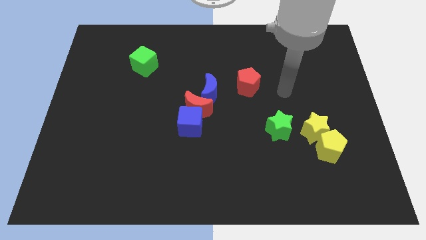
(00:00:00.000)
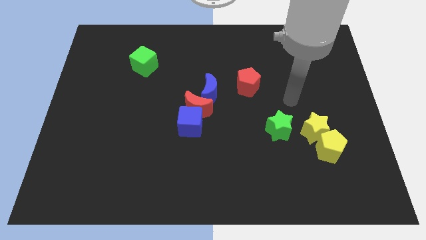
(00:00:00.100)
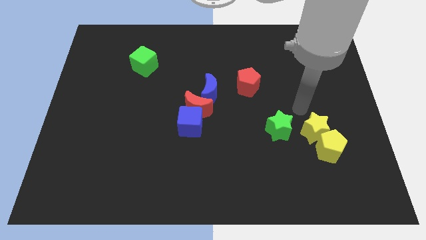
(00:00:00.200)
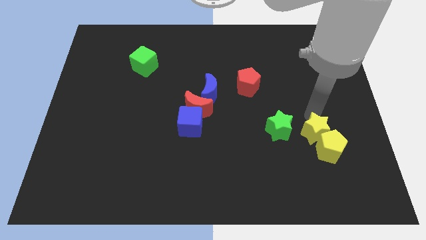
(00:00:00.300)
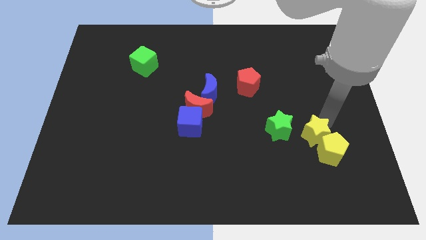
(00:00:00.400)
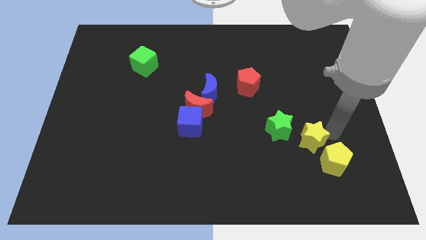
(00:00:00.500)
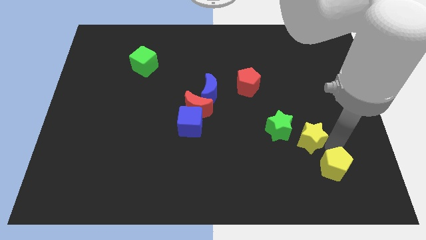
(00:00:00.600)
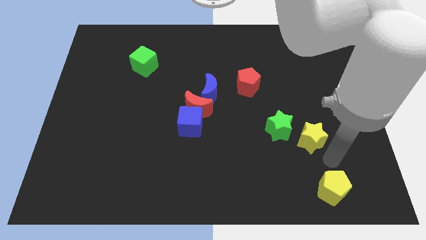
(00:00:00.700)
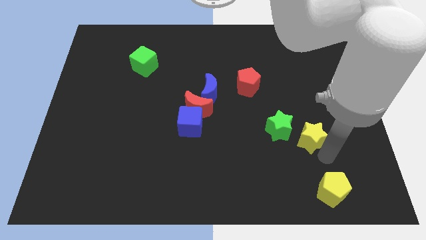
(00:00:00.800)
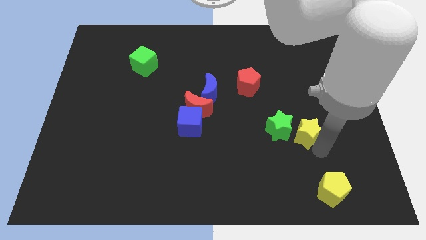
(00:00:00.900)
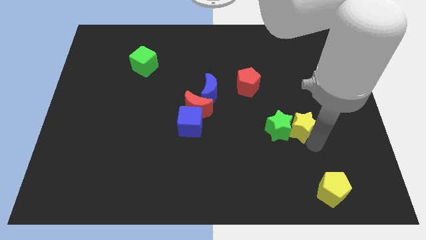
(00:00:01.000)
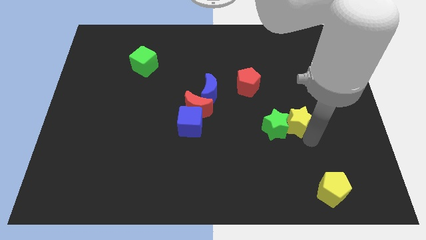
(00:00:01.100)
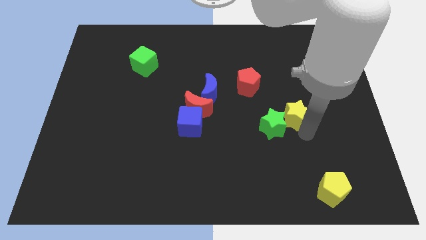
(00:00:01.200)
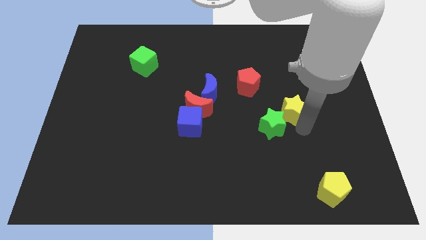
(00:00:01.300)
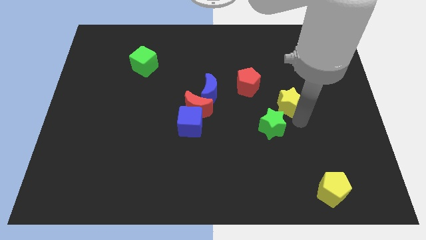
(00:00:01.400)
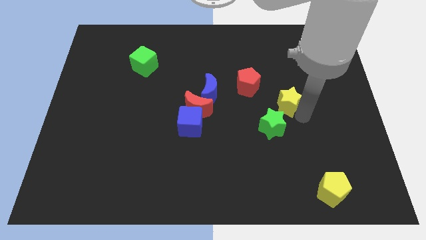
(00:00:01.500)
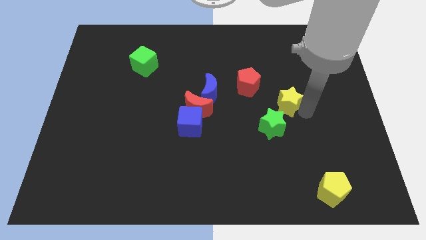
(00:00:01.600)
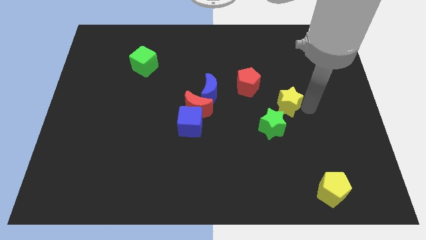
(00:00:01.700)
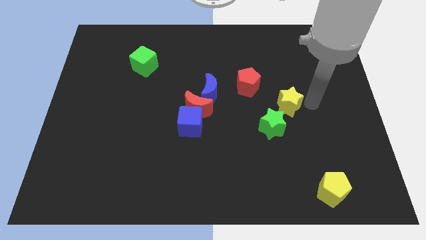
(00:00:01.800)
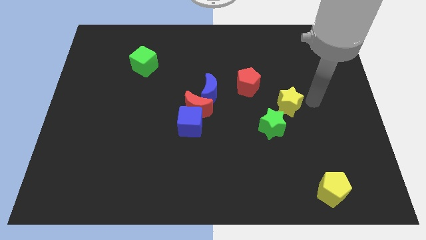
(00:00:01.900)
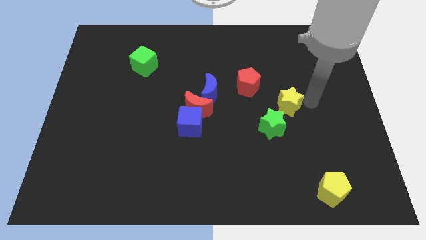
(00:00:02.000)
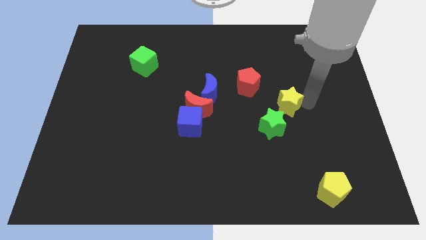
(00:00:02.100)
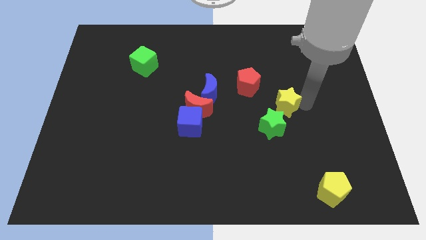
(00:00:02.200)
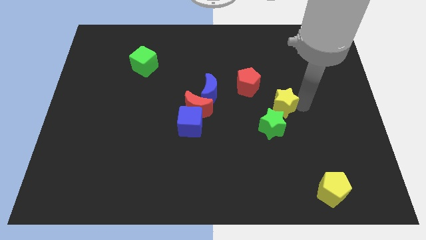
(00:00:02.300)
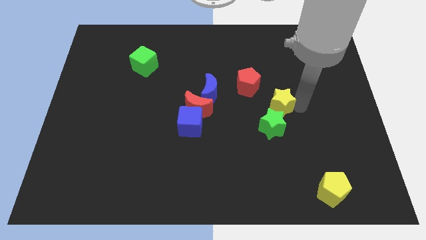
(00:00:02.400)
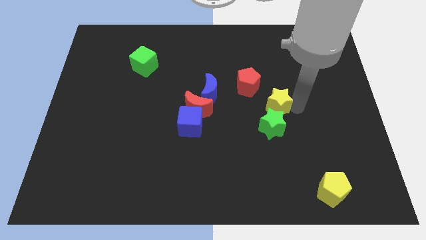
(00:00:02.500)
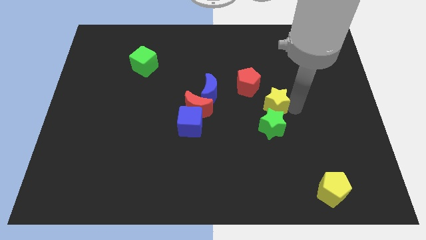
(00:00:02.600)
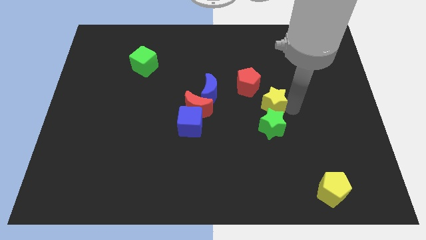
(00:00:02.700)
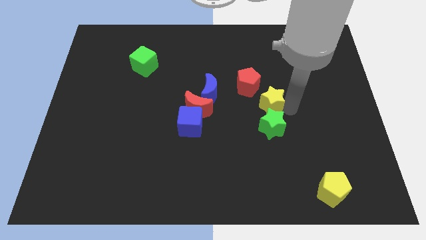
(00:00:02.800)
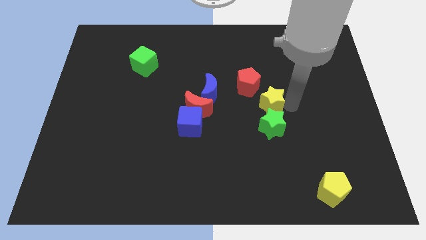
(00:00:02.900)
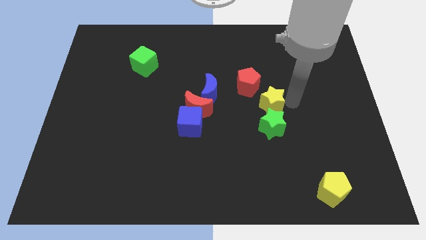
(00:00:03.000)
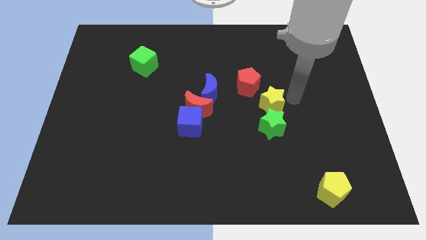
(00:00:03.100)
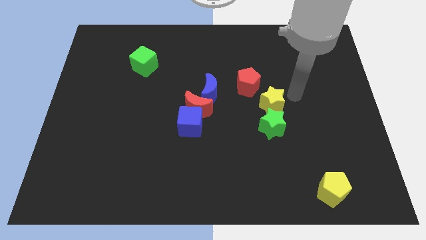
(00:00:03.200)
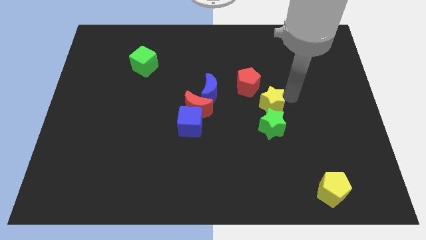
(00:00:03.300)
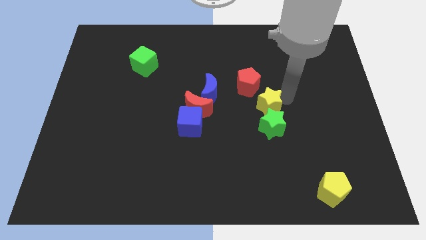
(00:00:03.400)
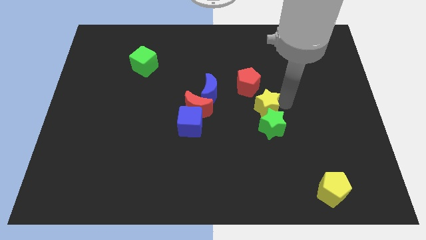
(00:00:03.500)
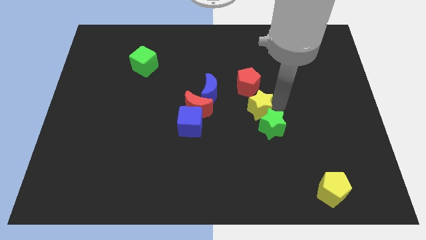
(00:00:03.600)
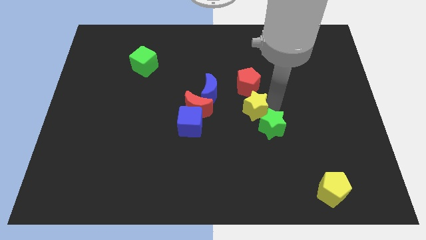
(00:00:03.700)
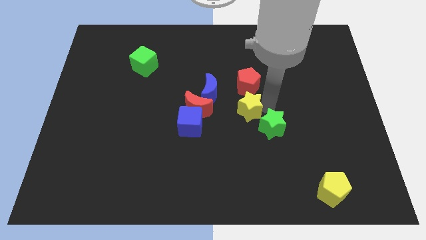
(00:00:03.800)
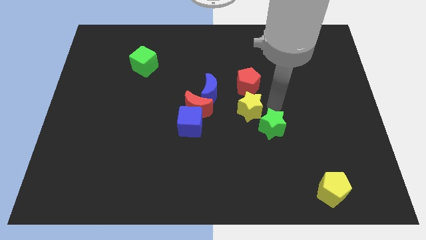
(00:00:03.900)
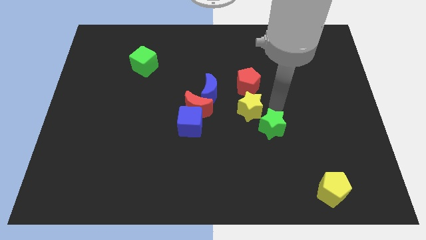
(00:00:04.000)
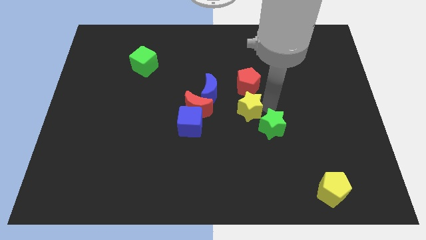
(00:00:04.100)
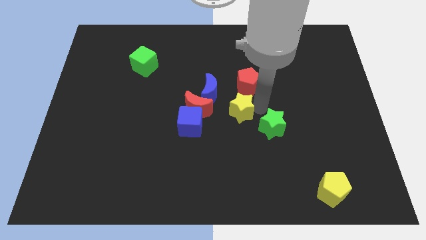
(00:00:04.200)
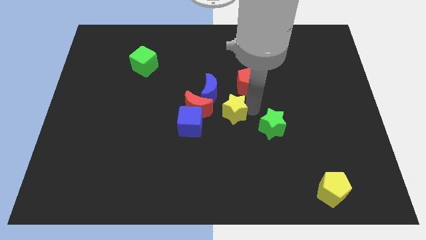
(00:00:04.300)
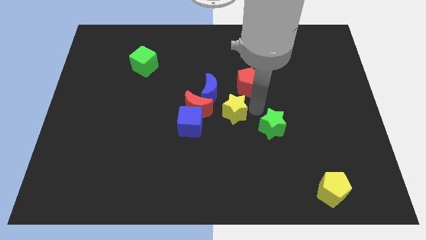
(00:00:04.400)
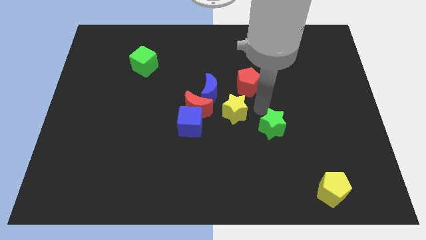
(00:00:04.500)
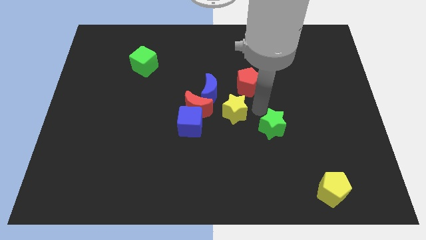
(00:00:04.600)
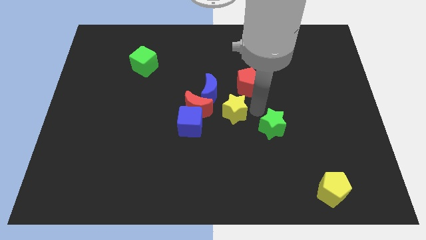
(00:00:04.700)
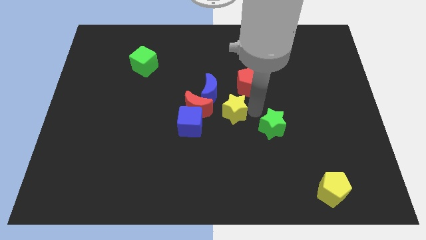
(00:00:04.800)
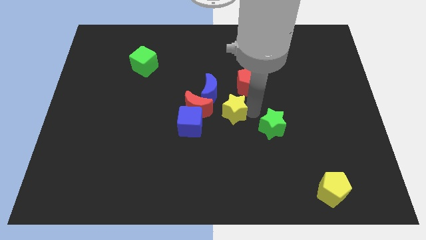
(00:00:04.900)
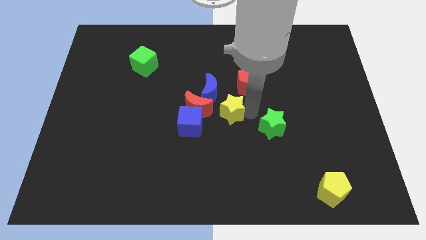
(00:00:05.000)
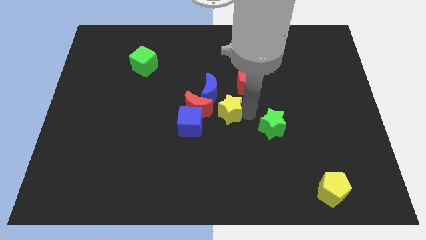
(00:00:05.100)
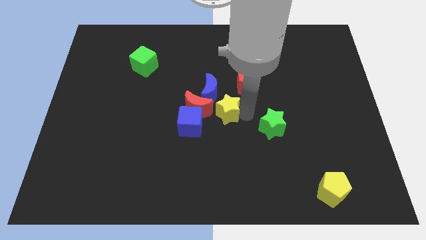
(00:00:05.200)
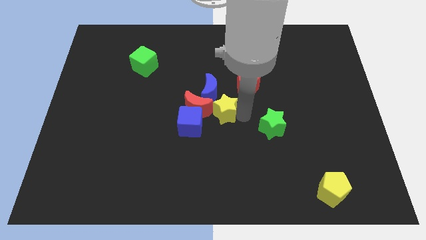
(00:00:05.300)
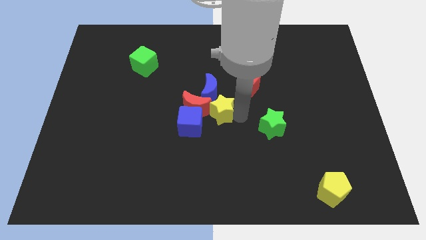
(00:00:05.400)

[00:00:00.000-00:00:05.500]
put the yellow star close to the red moon
